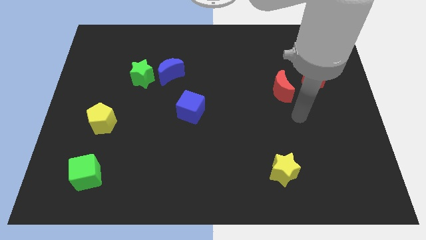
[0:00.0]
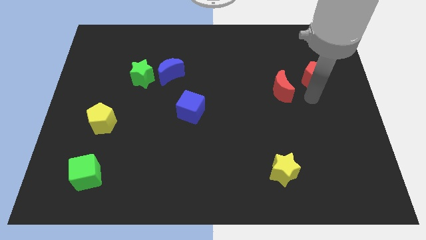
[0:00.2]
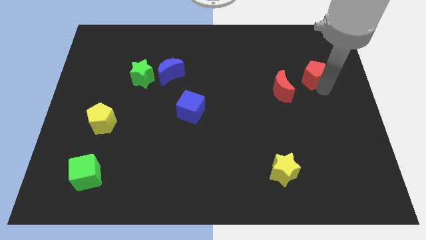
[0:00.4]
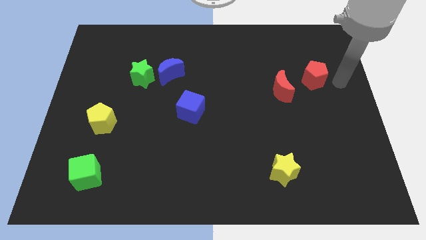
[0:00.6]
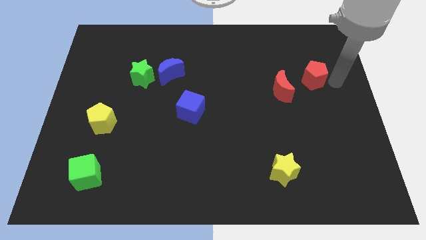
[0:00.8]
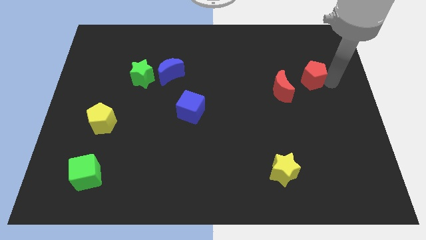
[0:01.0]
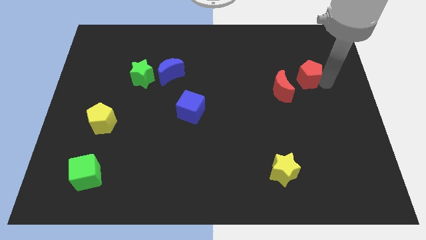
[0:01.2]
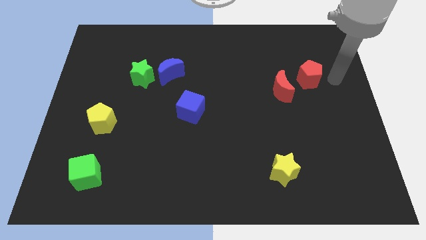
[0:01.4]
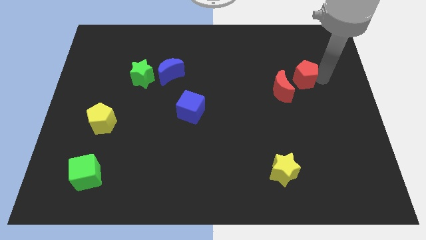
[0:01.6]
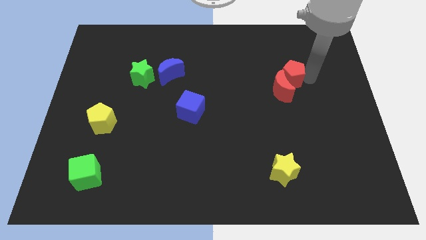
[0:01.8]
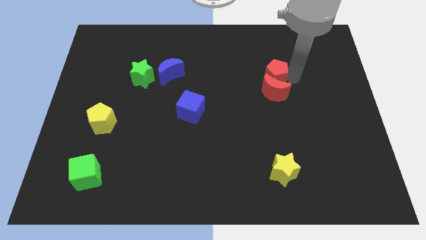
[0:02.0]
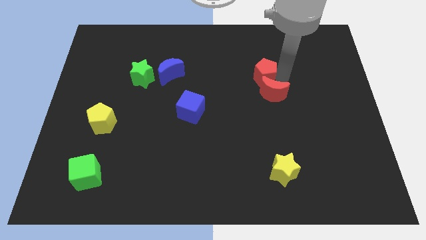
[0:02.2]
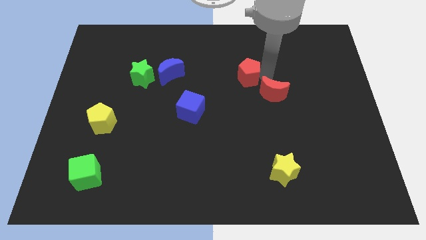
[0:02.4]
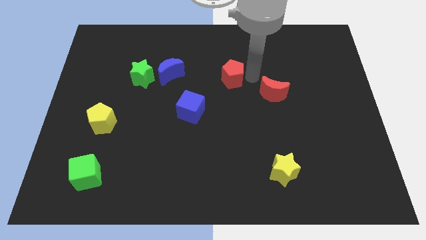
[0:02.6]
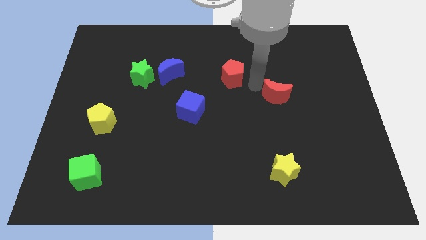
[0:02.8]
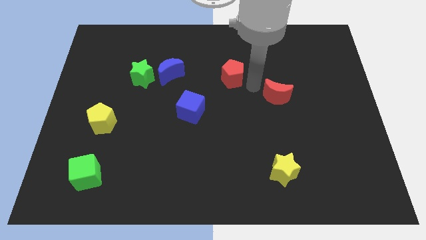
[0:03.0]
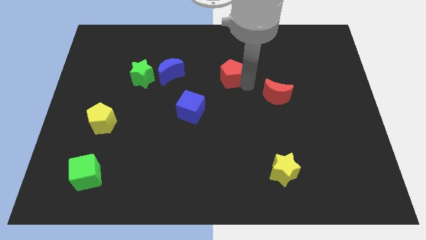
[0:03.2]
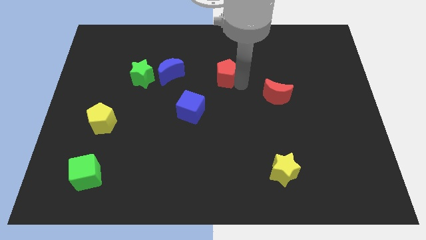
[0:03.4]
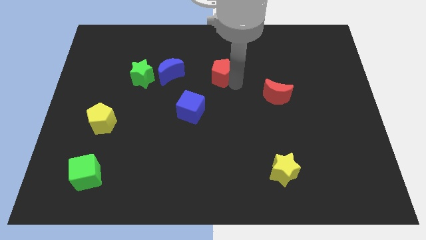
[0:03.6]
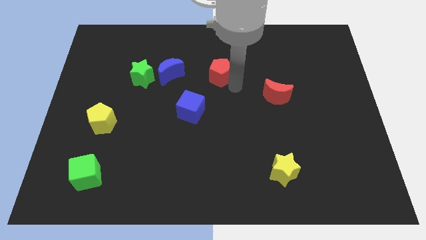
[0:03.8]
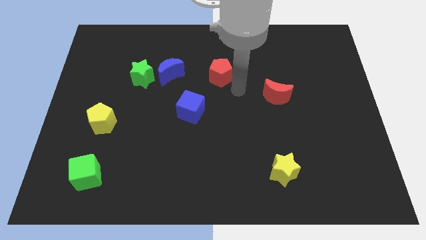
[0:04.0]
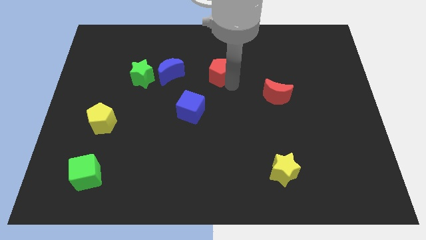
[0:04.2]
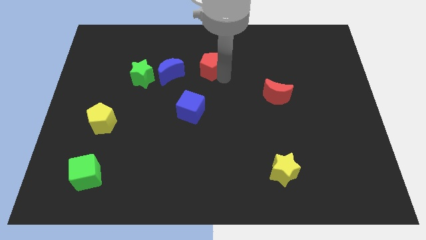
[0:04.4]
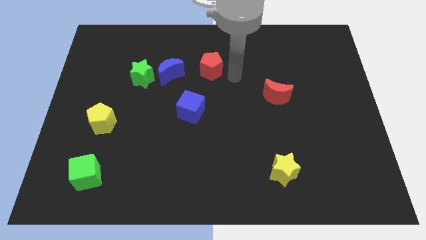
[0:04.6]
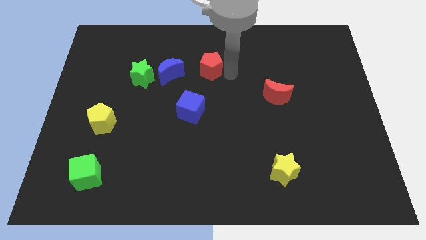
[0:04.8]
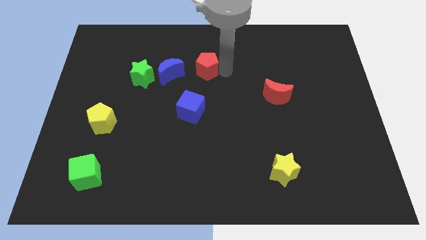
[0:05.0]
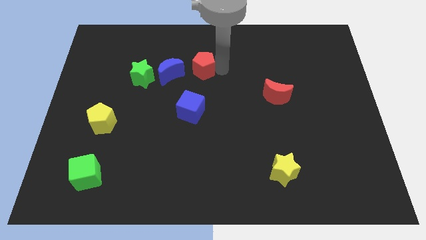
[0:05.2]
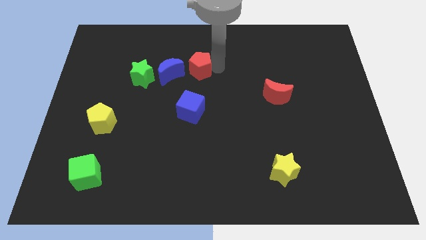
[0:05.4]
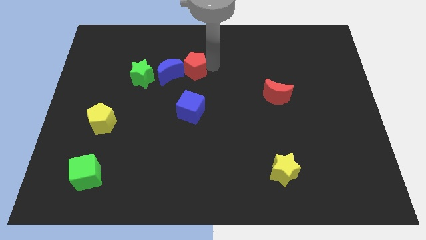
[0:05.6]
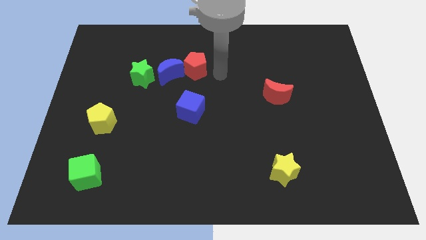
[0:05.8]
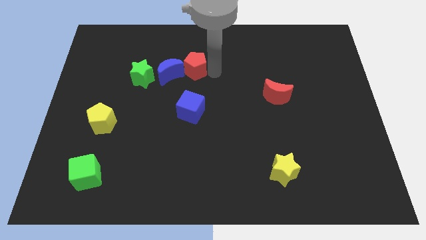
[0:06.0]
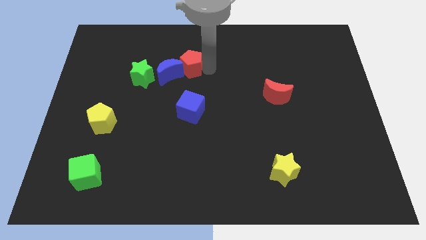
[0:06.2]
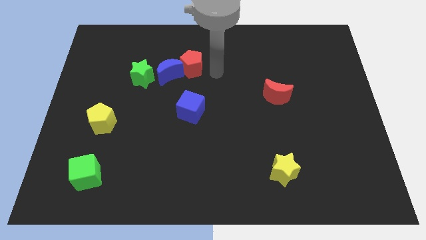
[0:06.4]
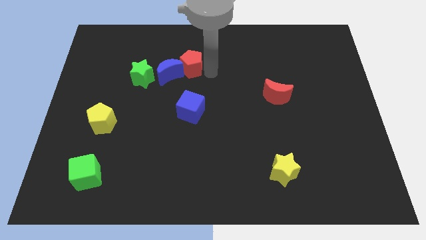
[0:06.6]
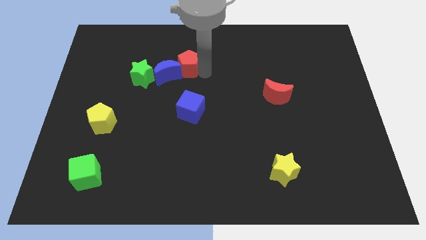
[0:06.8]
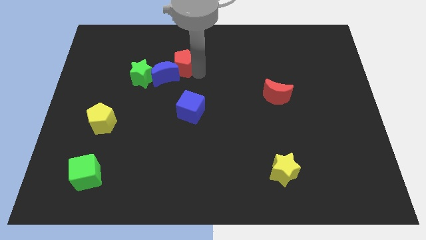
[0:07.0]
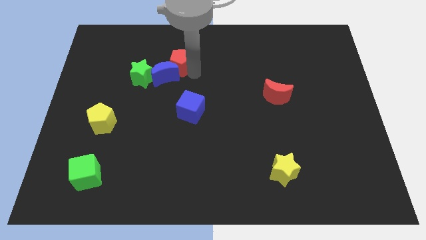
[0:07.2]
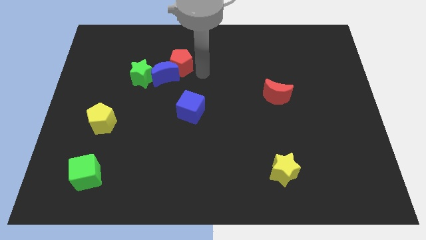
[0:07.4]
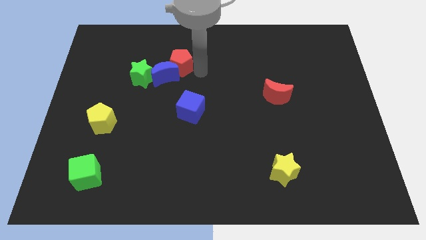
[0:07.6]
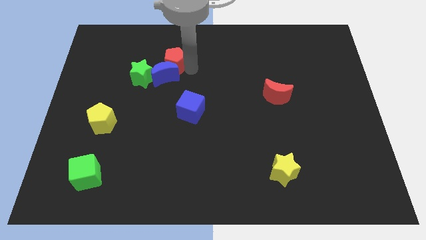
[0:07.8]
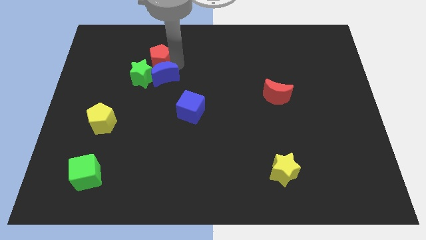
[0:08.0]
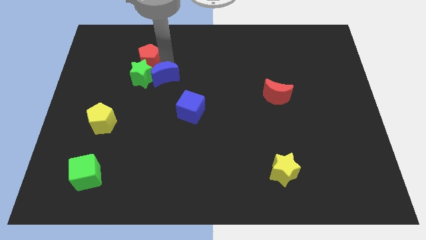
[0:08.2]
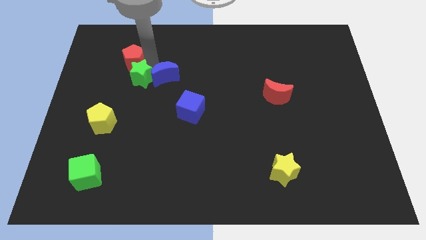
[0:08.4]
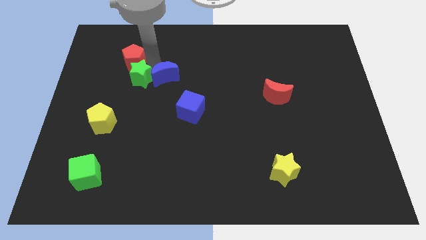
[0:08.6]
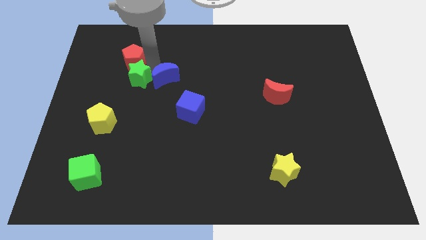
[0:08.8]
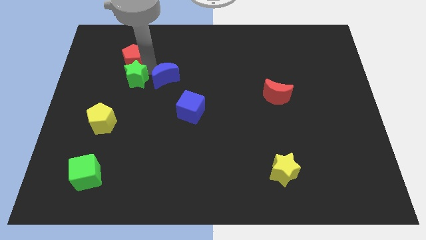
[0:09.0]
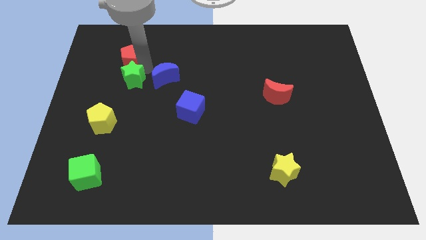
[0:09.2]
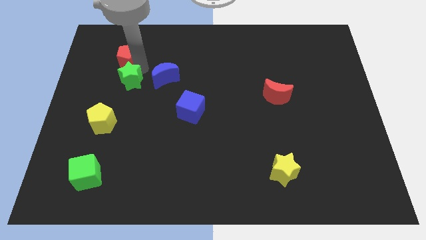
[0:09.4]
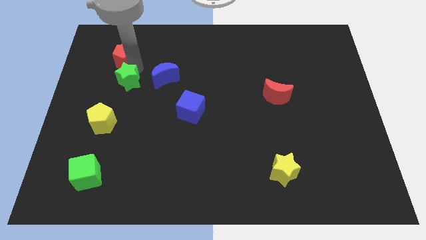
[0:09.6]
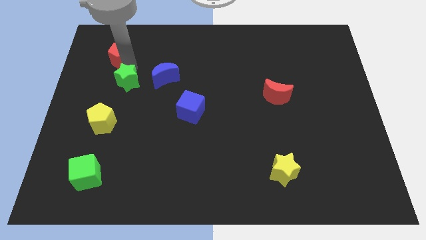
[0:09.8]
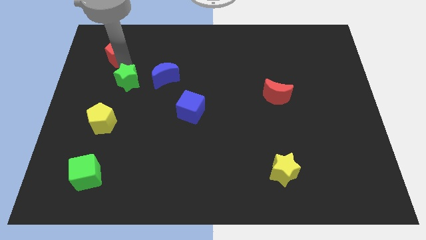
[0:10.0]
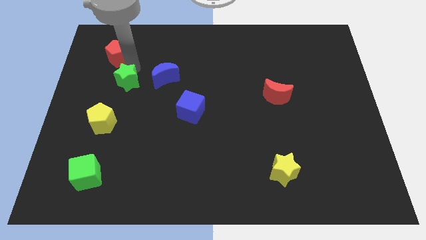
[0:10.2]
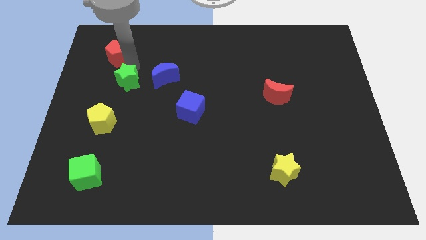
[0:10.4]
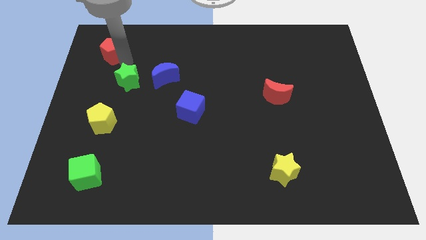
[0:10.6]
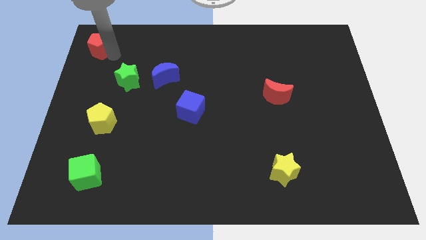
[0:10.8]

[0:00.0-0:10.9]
push the red pentagon to the top left corner

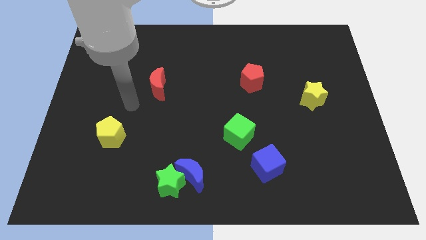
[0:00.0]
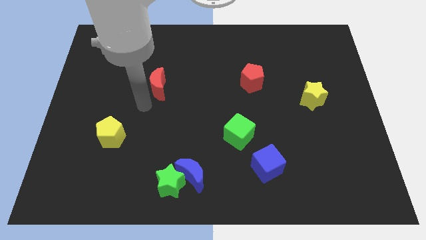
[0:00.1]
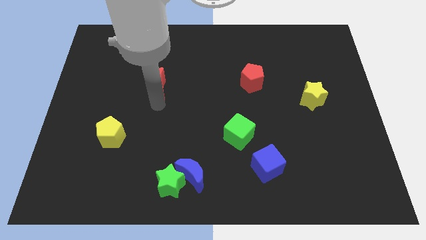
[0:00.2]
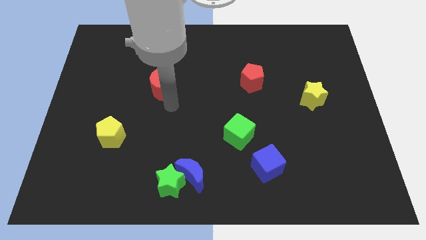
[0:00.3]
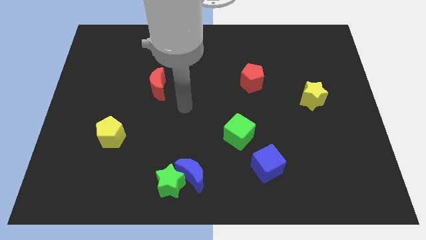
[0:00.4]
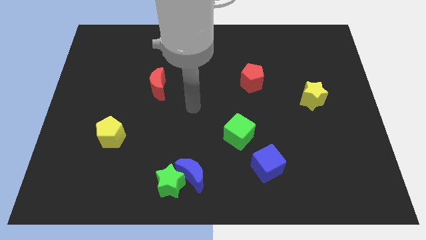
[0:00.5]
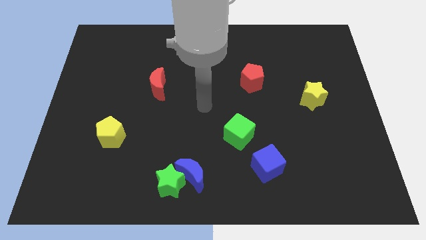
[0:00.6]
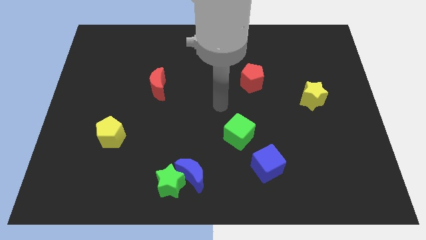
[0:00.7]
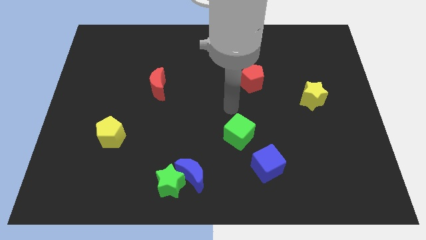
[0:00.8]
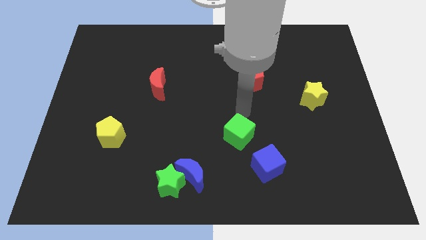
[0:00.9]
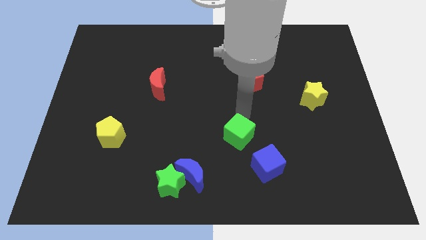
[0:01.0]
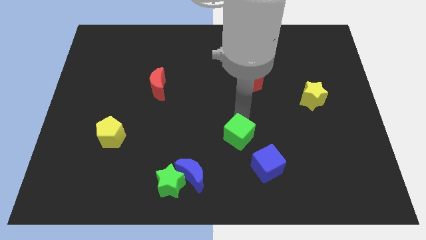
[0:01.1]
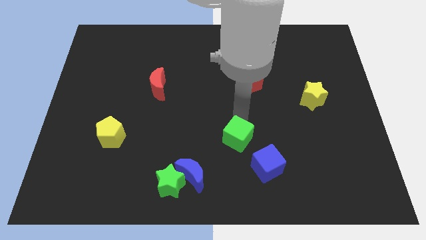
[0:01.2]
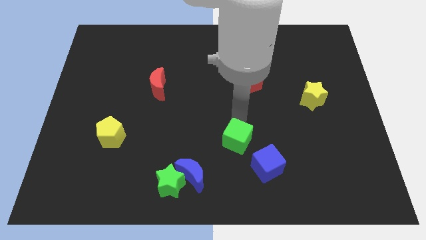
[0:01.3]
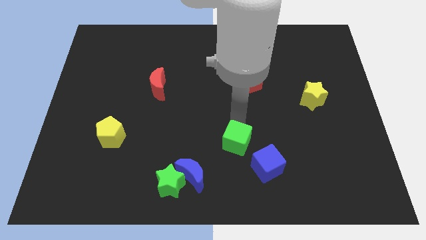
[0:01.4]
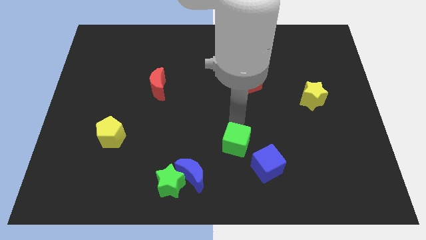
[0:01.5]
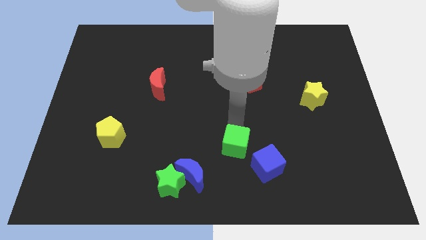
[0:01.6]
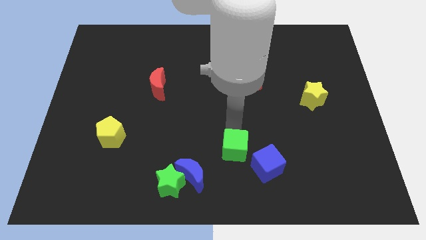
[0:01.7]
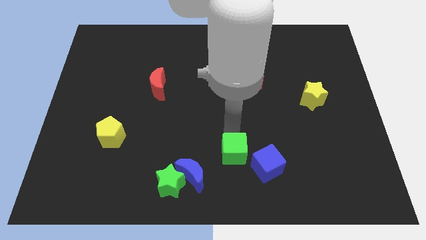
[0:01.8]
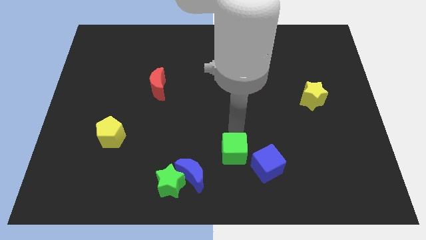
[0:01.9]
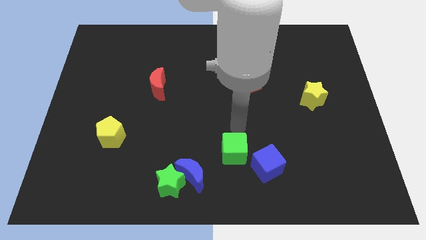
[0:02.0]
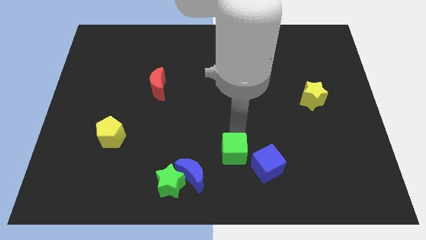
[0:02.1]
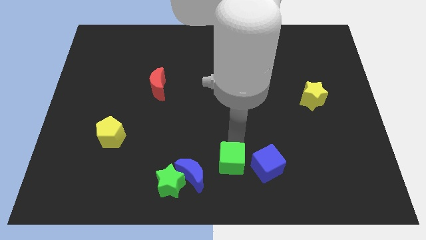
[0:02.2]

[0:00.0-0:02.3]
push the green cube to the bottom
